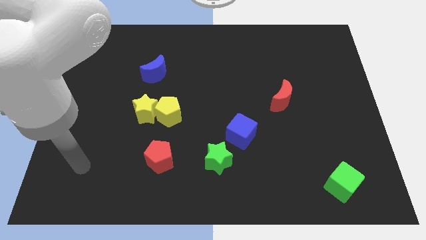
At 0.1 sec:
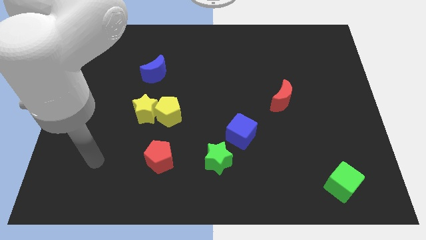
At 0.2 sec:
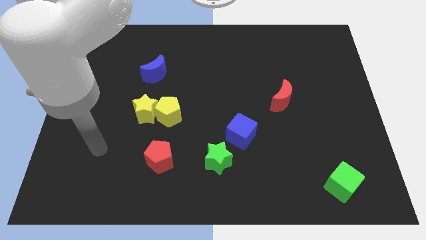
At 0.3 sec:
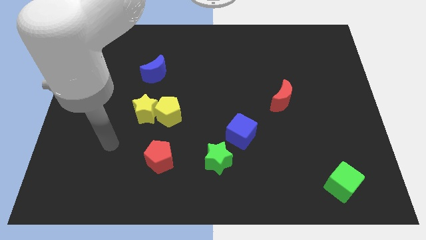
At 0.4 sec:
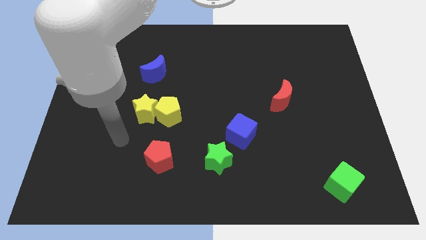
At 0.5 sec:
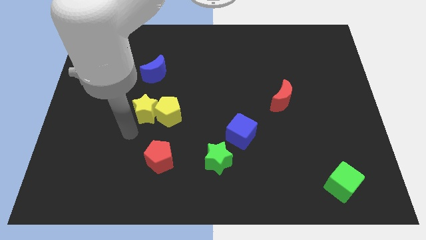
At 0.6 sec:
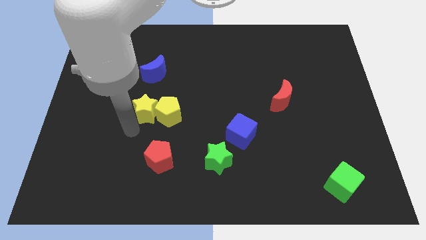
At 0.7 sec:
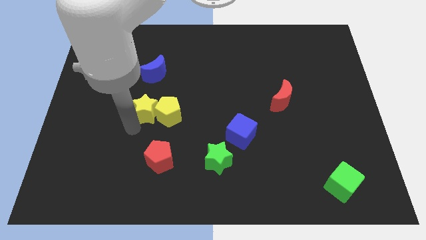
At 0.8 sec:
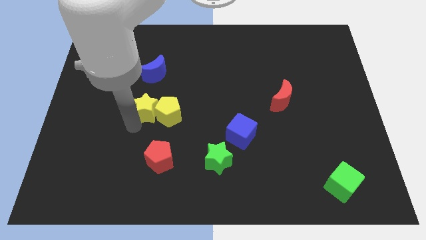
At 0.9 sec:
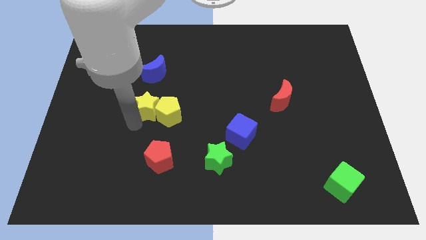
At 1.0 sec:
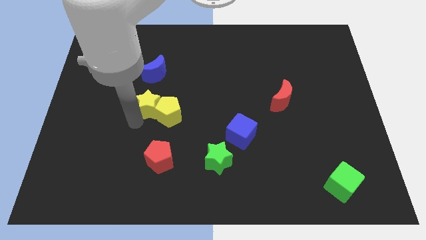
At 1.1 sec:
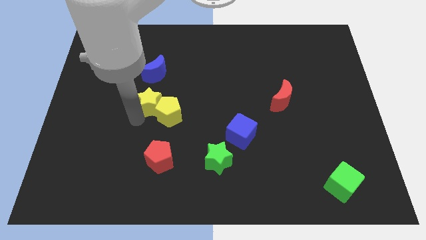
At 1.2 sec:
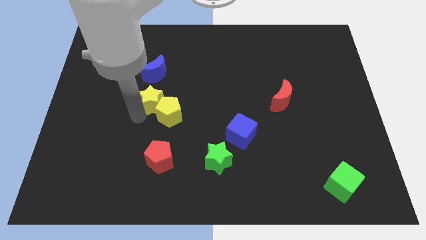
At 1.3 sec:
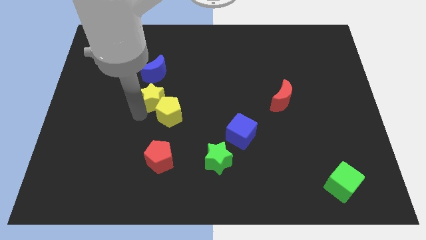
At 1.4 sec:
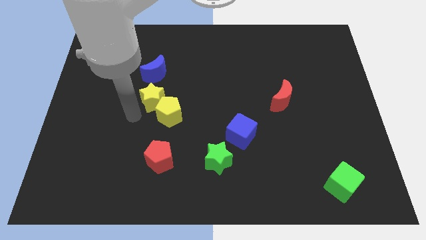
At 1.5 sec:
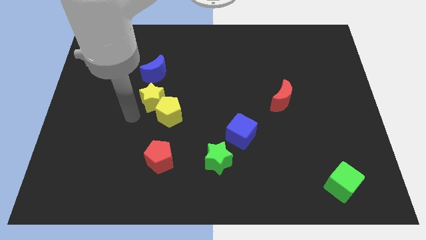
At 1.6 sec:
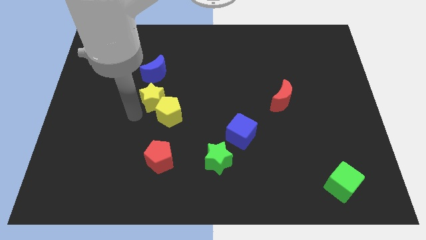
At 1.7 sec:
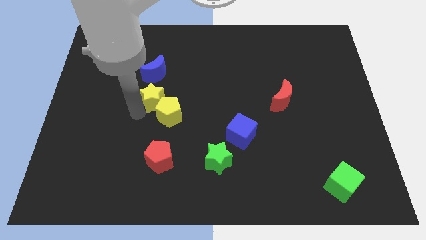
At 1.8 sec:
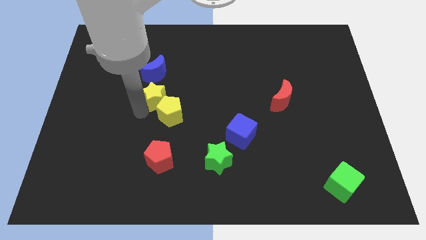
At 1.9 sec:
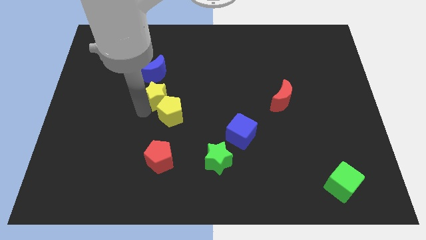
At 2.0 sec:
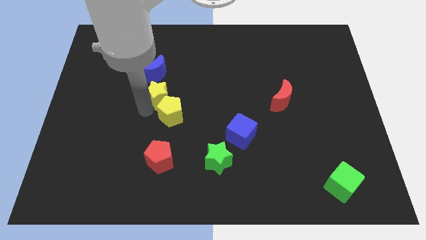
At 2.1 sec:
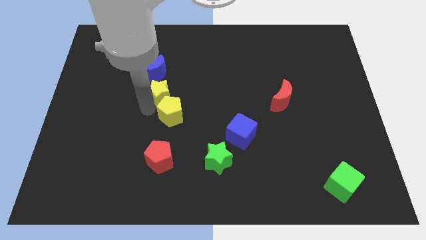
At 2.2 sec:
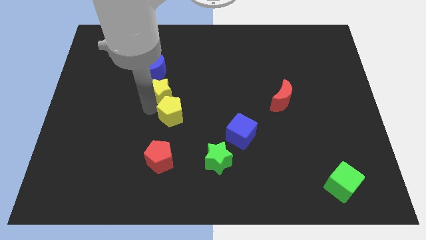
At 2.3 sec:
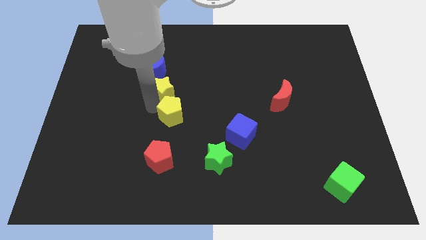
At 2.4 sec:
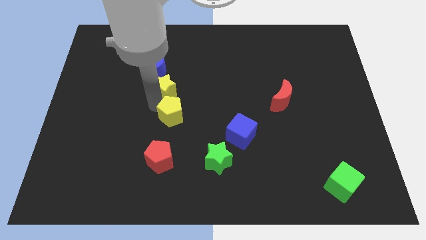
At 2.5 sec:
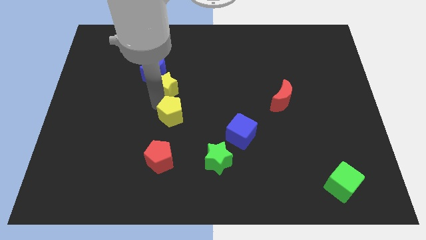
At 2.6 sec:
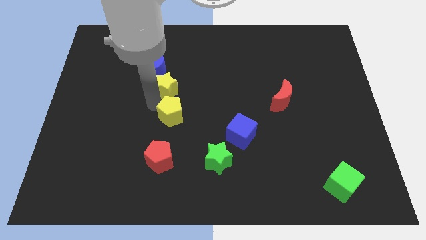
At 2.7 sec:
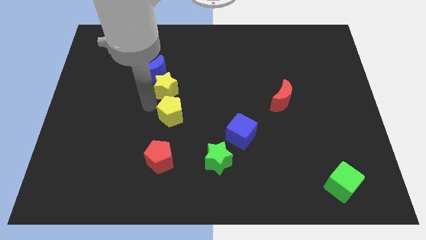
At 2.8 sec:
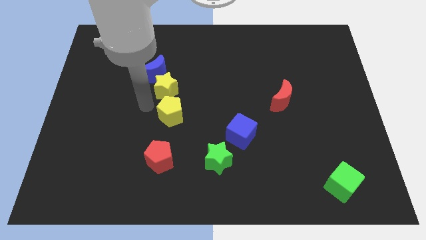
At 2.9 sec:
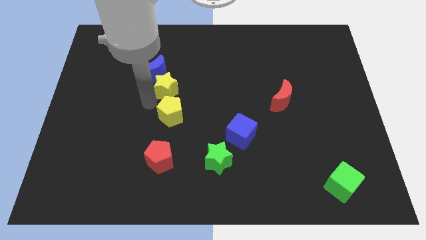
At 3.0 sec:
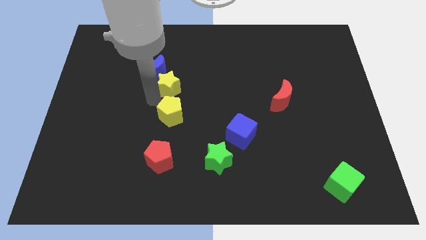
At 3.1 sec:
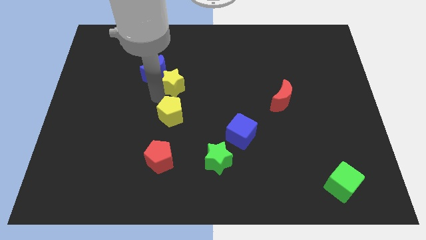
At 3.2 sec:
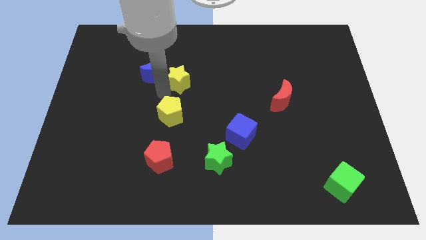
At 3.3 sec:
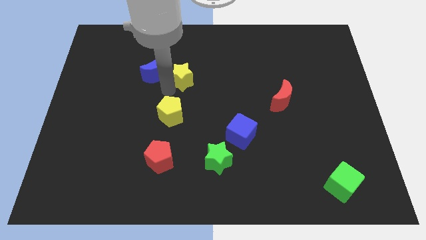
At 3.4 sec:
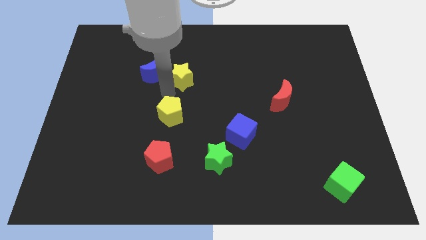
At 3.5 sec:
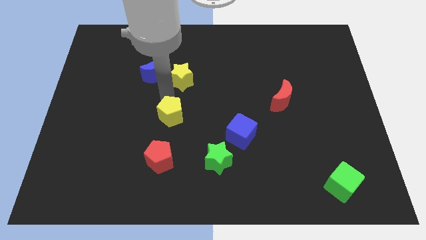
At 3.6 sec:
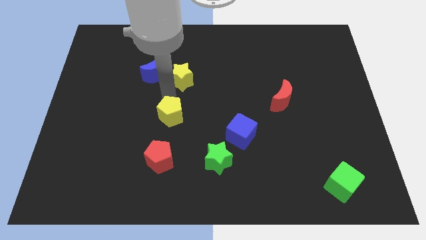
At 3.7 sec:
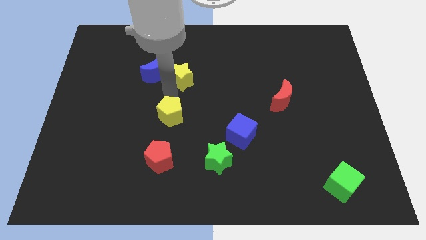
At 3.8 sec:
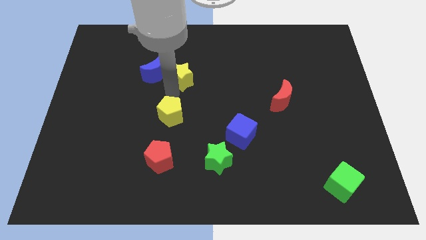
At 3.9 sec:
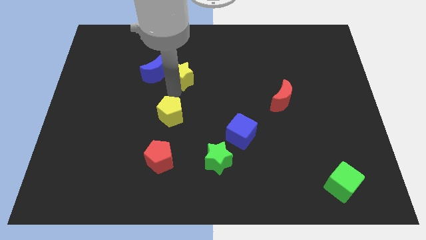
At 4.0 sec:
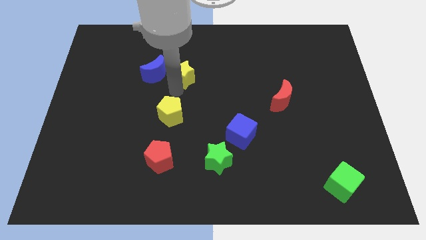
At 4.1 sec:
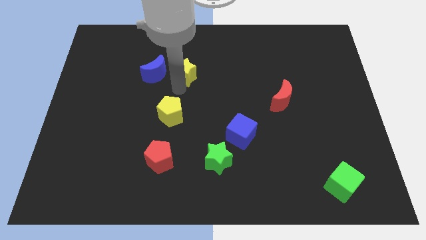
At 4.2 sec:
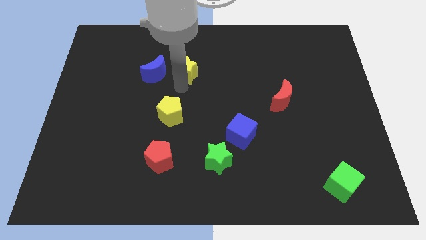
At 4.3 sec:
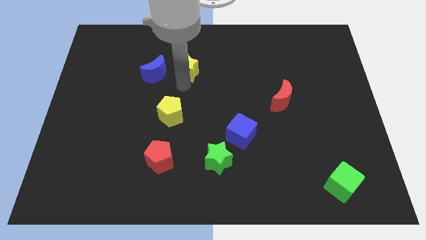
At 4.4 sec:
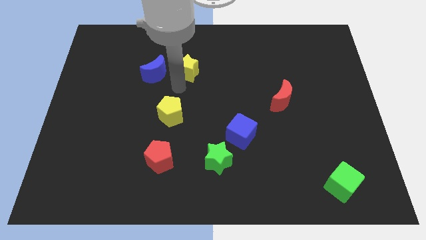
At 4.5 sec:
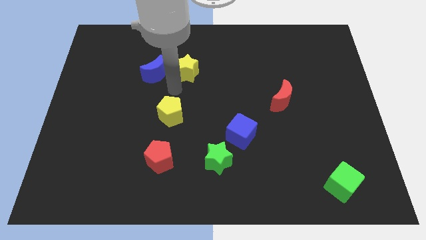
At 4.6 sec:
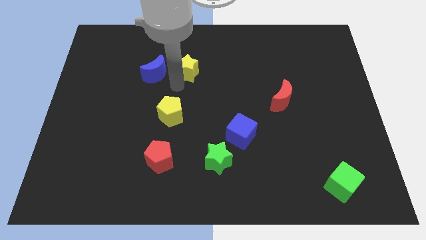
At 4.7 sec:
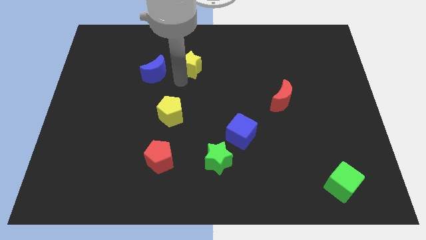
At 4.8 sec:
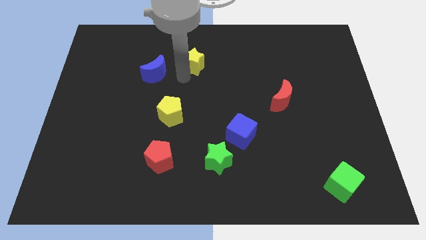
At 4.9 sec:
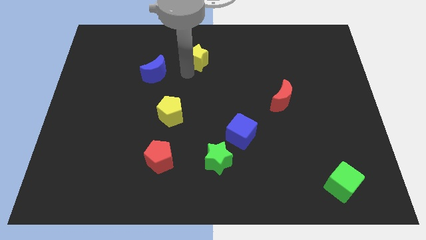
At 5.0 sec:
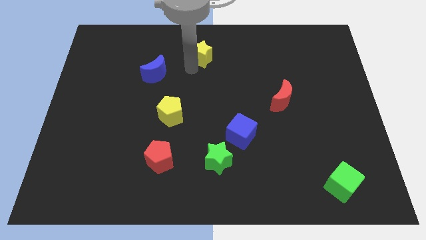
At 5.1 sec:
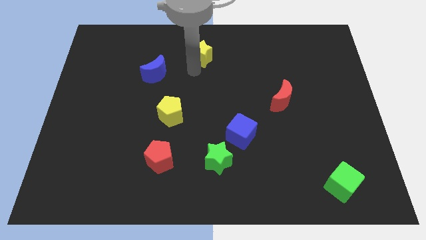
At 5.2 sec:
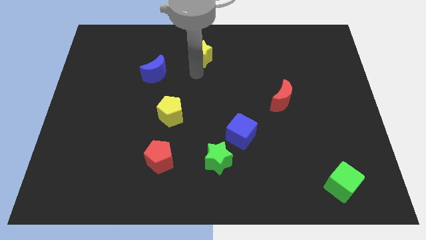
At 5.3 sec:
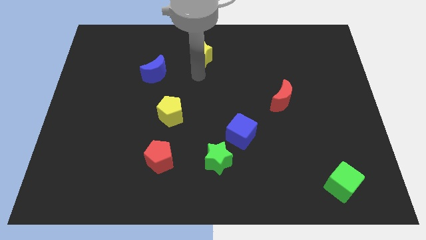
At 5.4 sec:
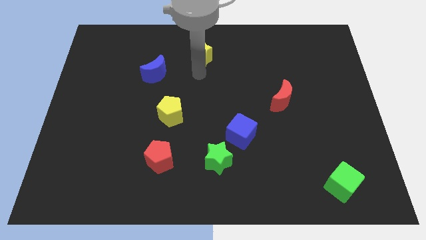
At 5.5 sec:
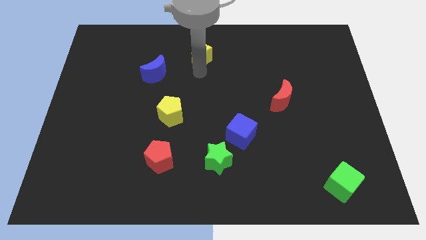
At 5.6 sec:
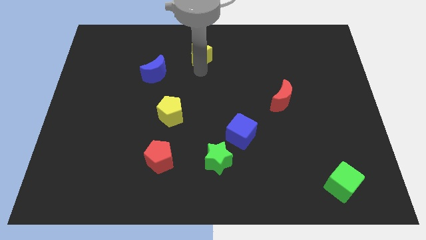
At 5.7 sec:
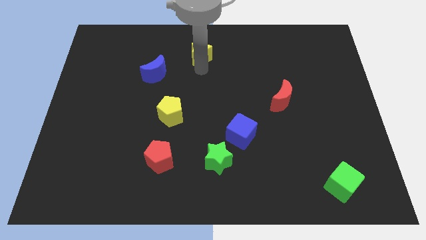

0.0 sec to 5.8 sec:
put the yellow star to the towards your base
